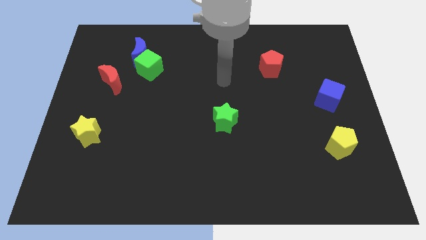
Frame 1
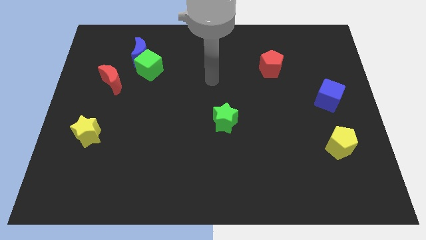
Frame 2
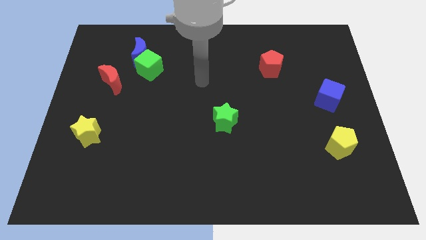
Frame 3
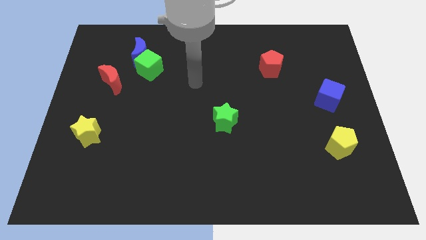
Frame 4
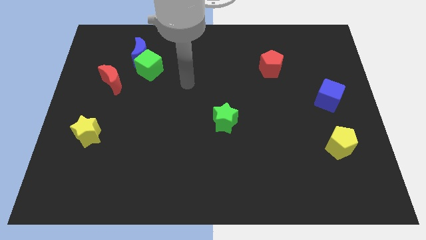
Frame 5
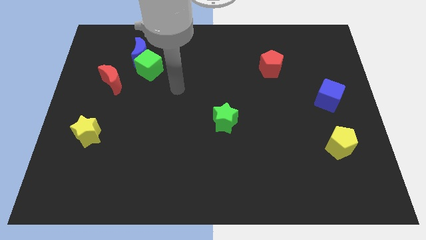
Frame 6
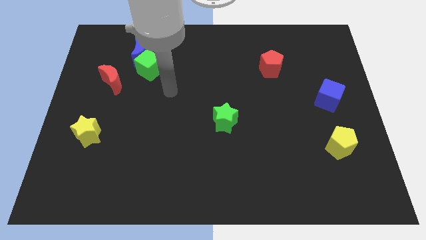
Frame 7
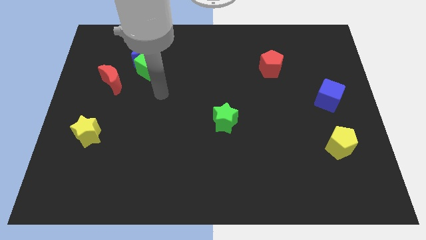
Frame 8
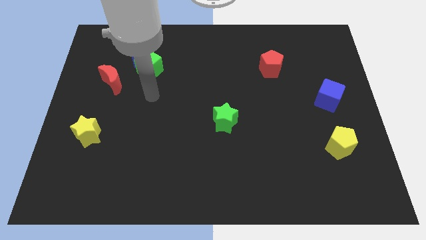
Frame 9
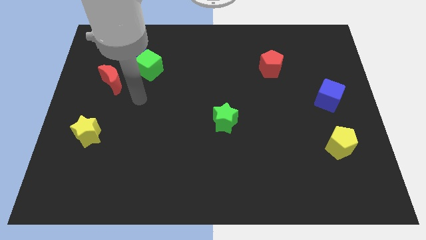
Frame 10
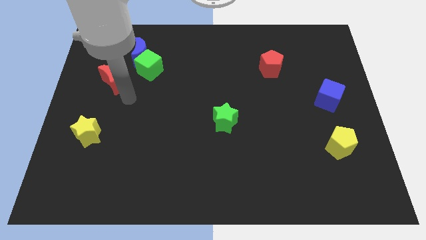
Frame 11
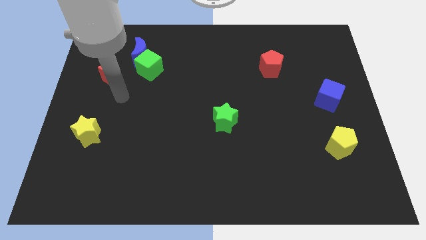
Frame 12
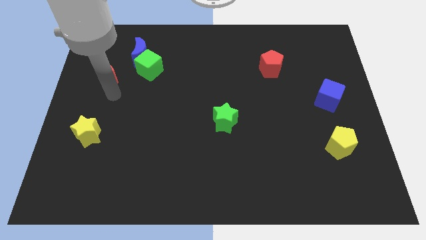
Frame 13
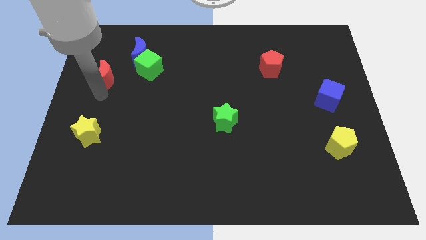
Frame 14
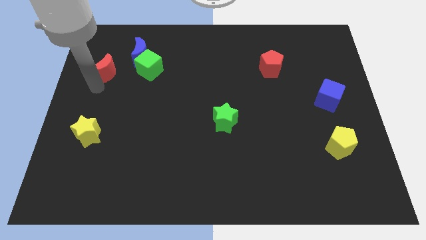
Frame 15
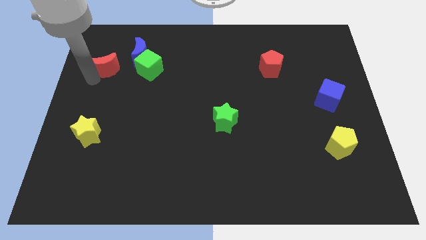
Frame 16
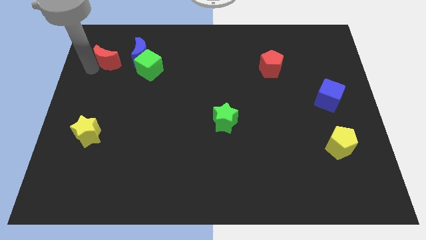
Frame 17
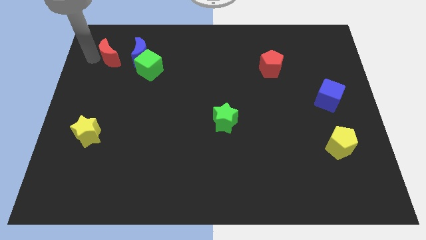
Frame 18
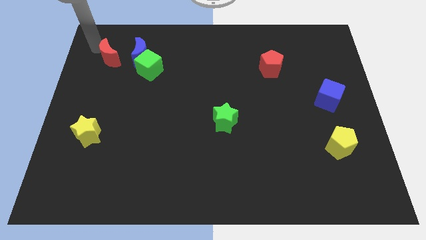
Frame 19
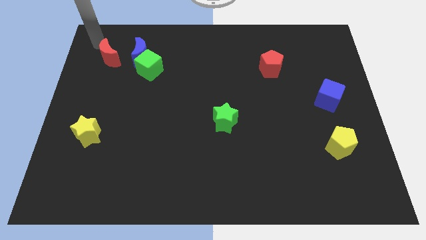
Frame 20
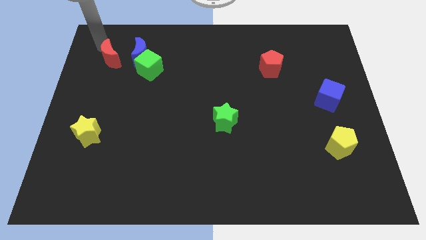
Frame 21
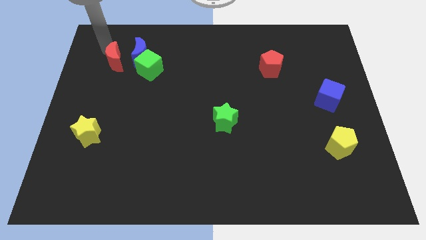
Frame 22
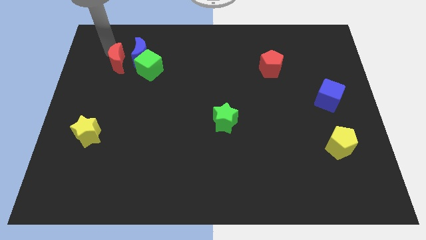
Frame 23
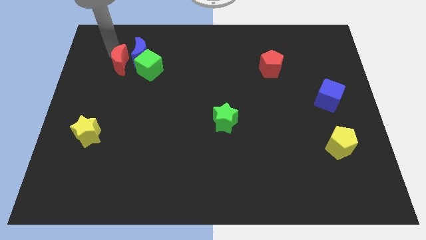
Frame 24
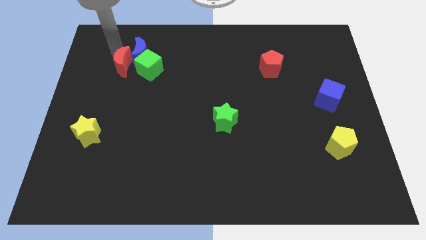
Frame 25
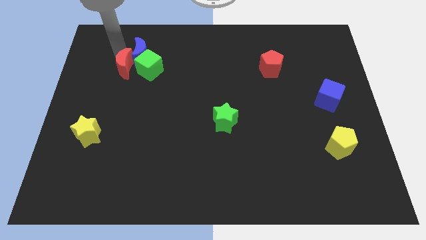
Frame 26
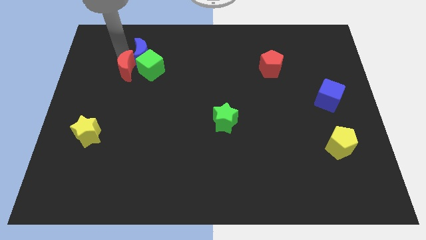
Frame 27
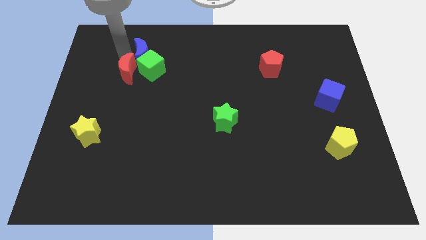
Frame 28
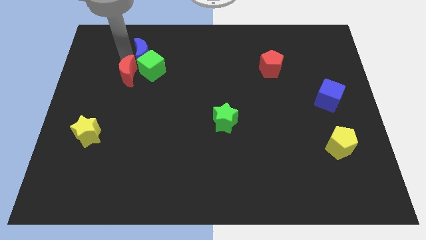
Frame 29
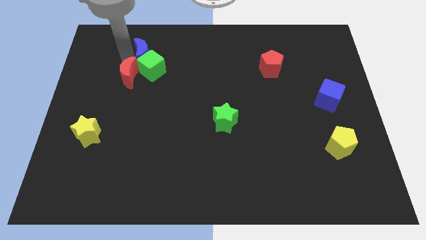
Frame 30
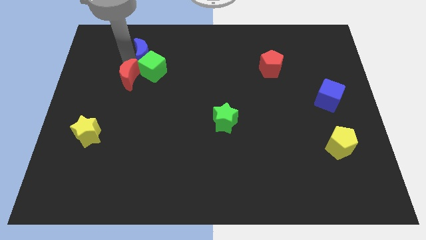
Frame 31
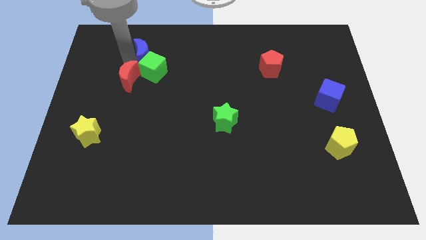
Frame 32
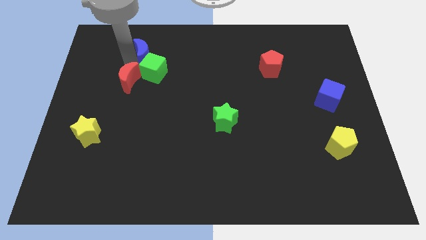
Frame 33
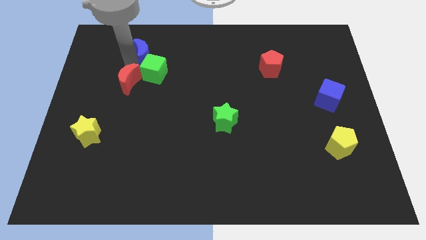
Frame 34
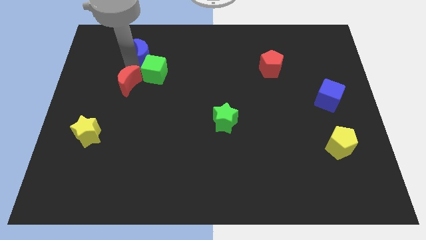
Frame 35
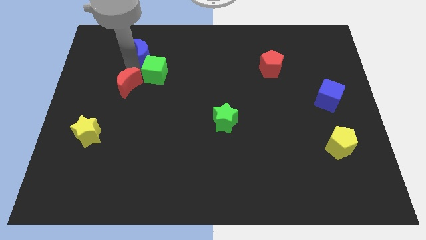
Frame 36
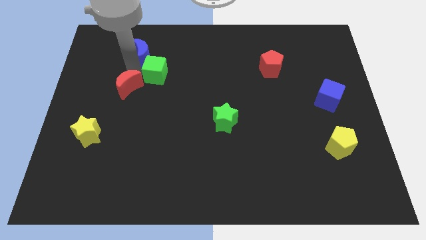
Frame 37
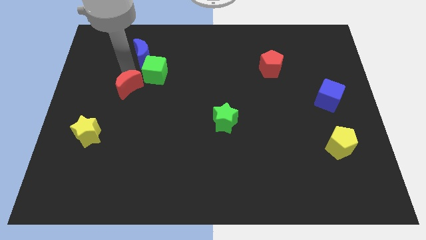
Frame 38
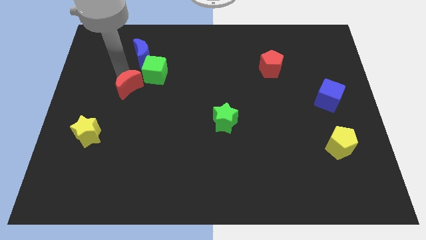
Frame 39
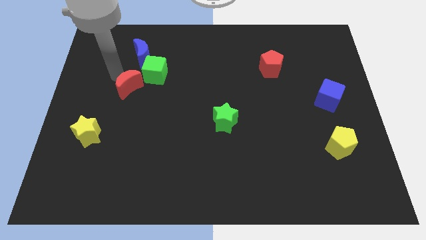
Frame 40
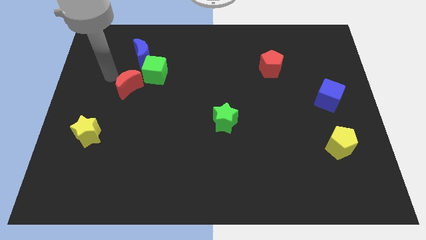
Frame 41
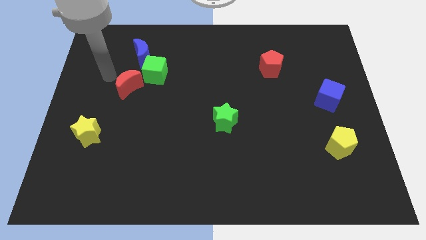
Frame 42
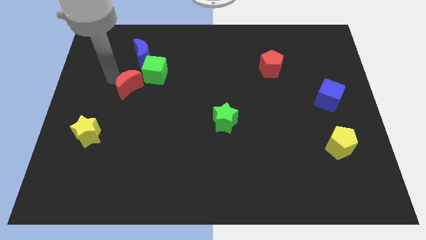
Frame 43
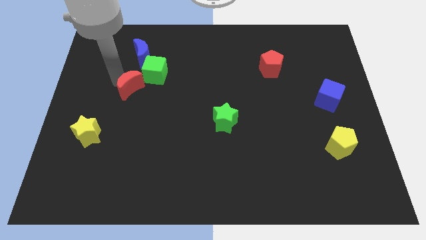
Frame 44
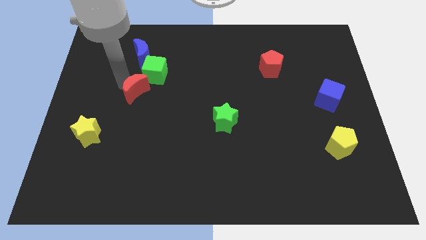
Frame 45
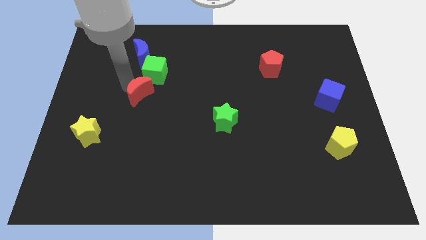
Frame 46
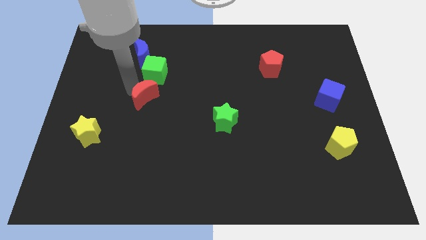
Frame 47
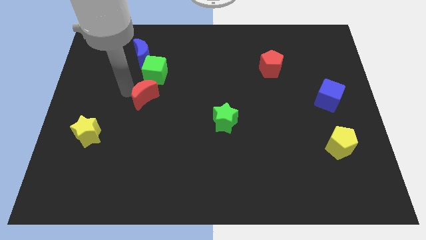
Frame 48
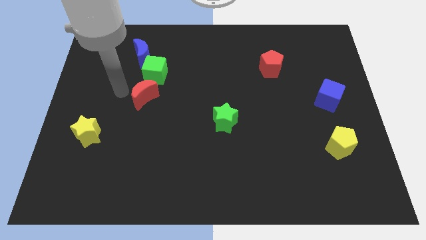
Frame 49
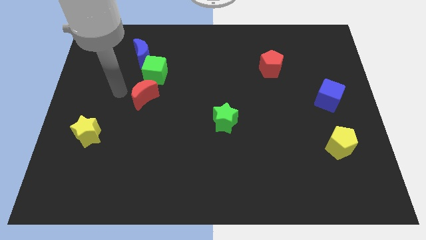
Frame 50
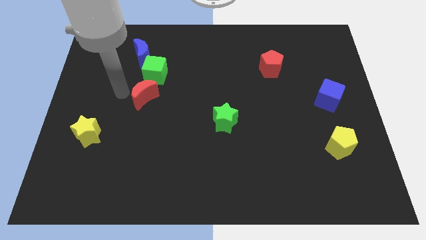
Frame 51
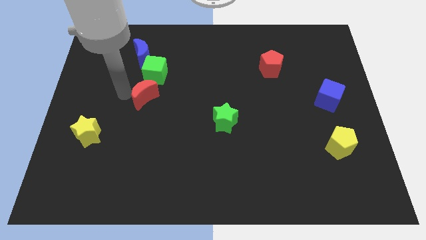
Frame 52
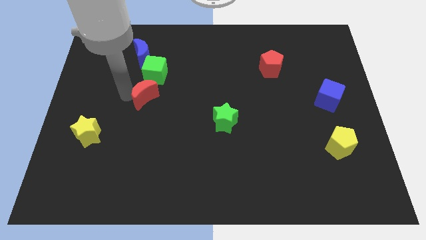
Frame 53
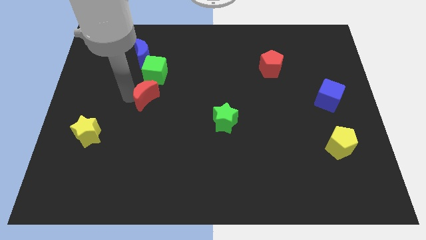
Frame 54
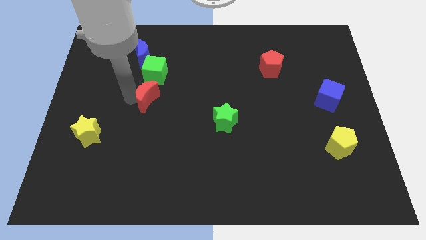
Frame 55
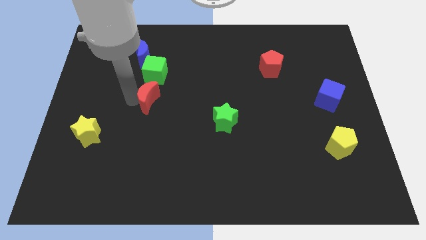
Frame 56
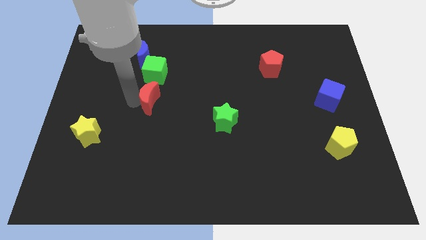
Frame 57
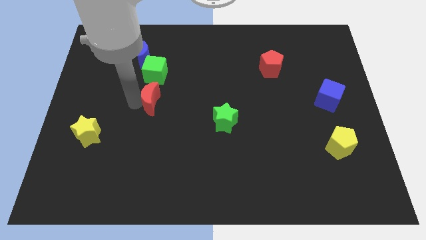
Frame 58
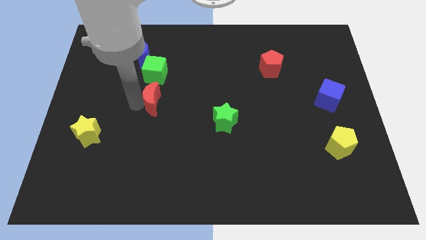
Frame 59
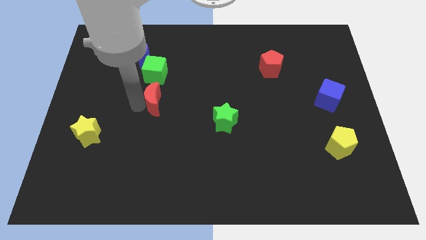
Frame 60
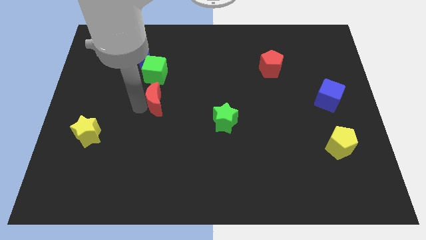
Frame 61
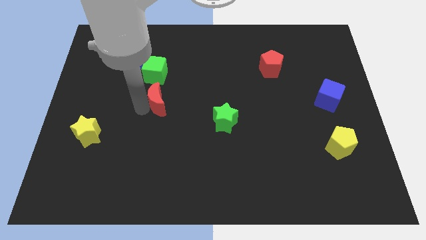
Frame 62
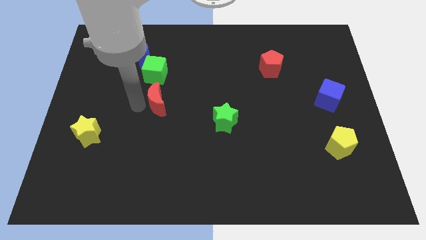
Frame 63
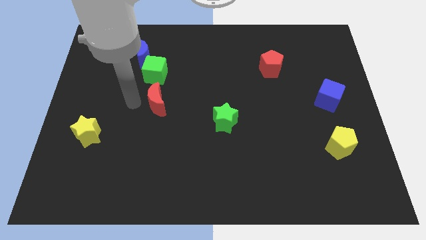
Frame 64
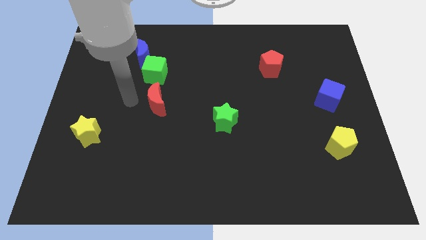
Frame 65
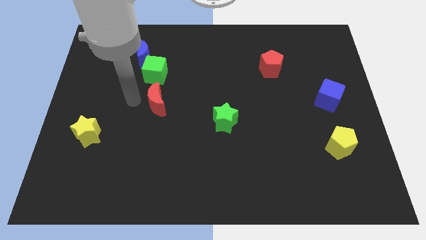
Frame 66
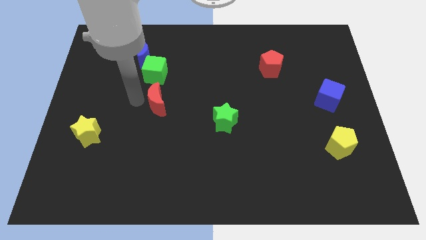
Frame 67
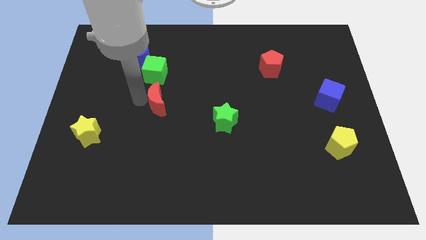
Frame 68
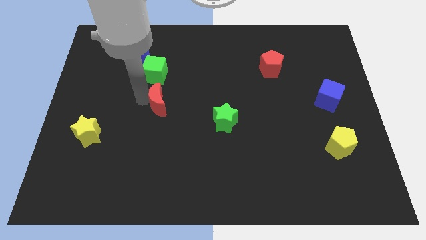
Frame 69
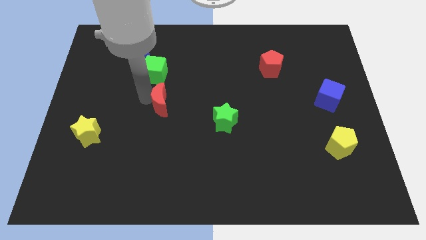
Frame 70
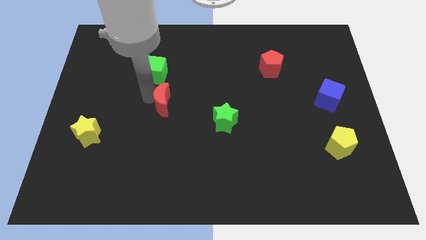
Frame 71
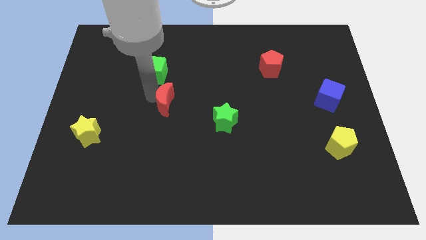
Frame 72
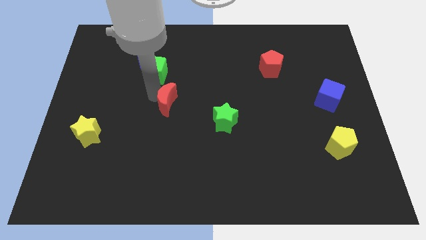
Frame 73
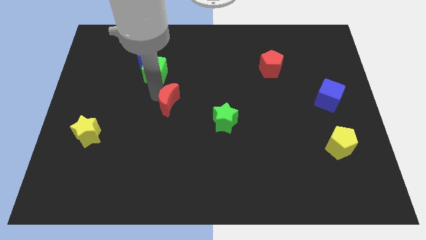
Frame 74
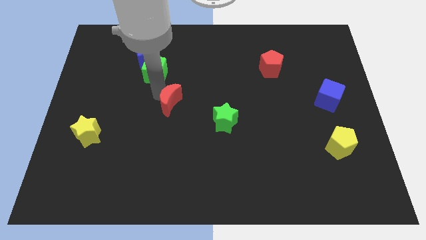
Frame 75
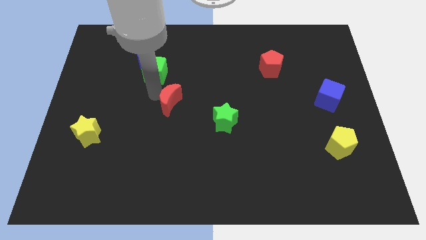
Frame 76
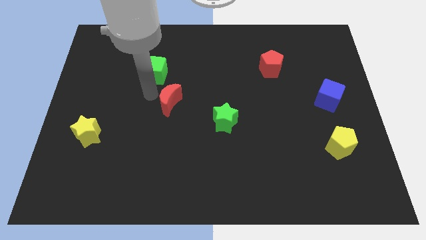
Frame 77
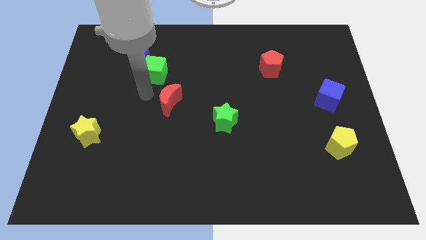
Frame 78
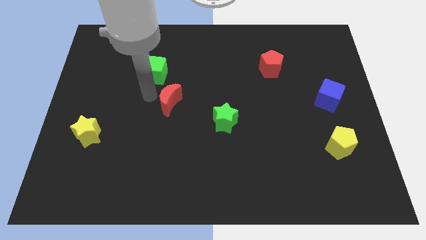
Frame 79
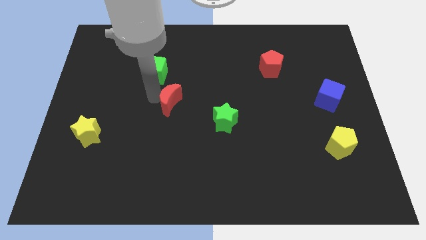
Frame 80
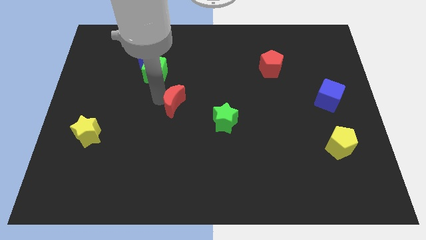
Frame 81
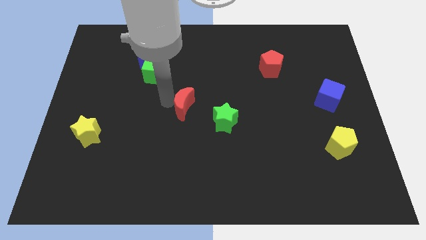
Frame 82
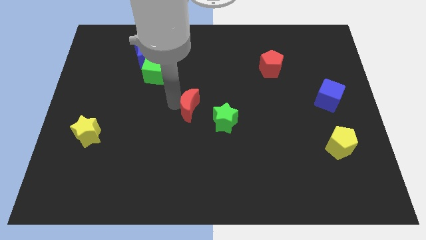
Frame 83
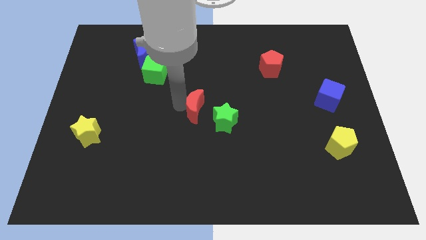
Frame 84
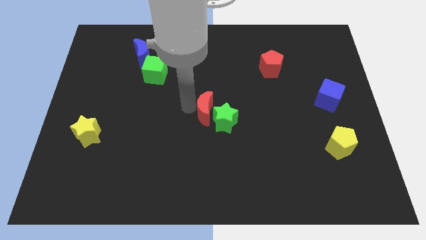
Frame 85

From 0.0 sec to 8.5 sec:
slide the red moon next to the green star
